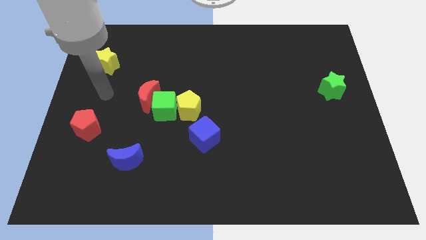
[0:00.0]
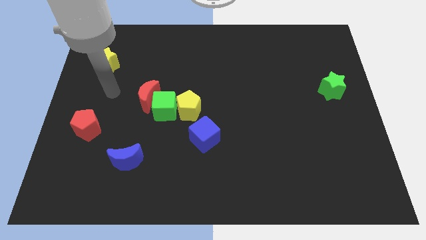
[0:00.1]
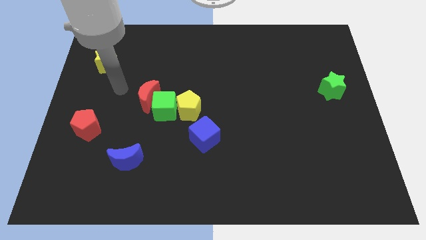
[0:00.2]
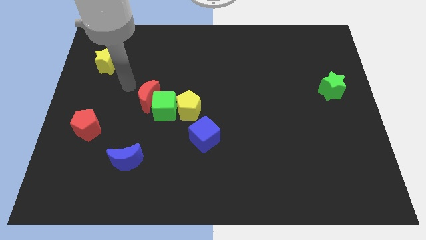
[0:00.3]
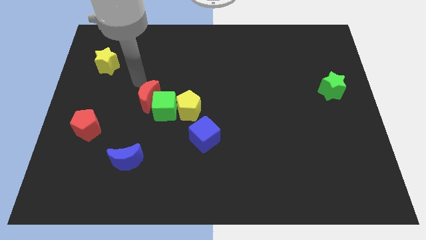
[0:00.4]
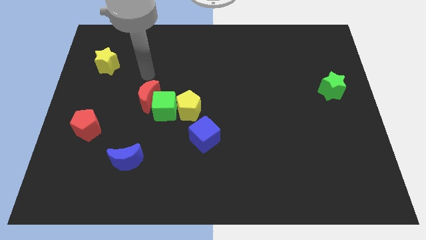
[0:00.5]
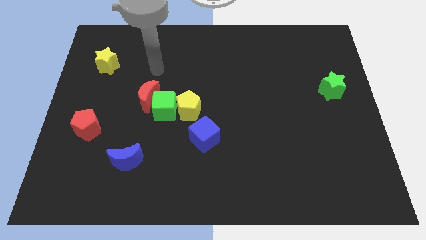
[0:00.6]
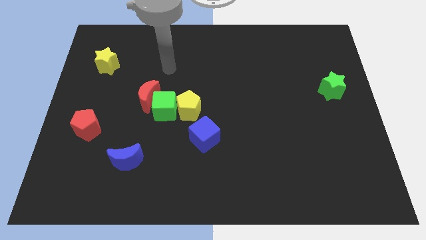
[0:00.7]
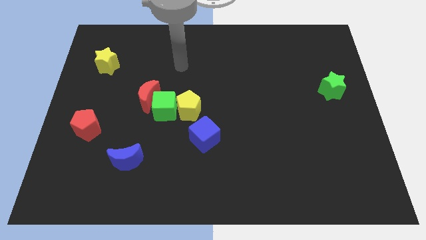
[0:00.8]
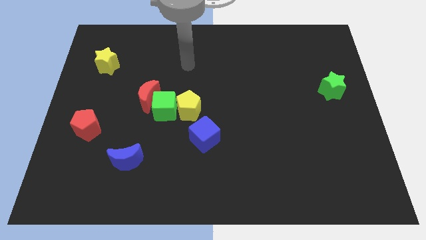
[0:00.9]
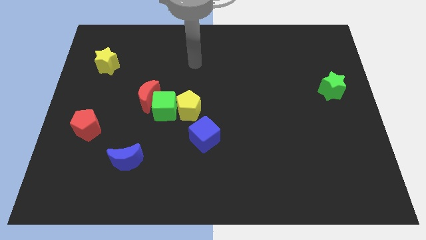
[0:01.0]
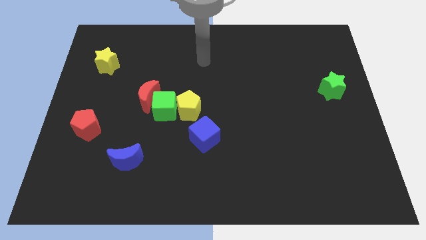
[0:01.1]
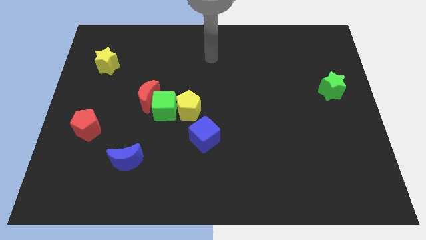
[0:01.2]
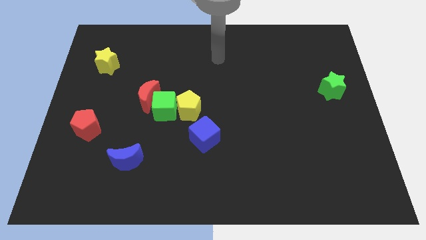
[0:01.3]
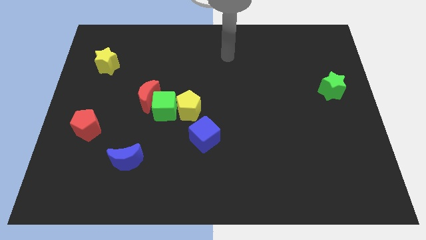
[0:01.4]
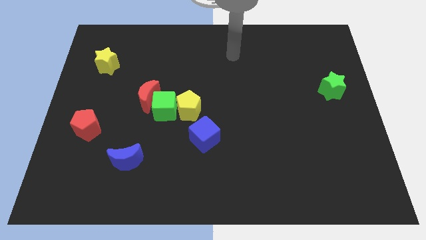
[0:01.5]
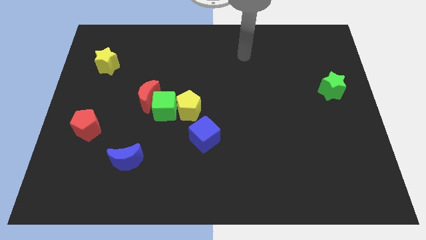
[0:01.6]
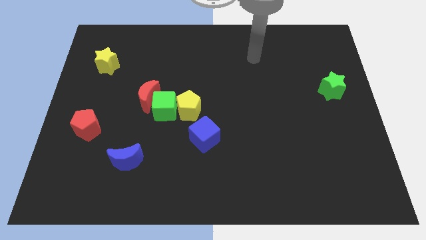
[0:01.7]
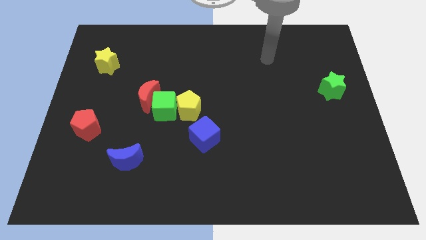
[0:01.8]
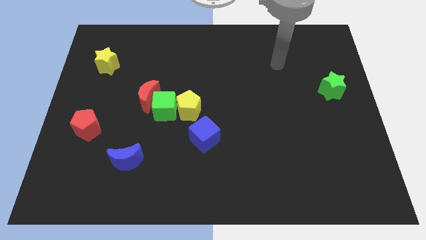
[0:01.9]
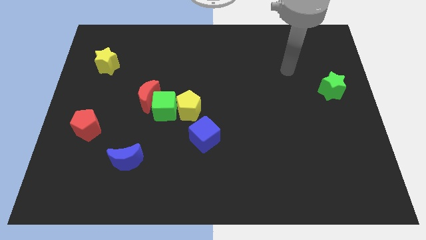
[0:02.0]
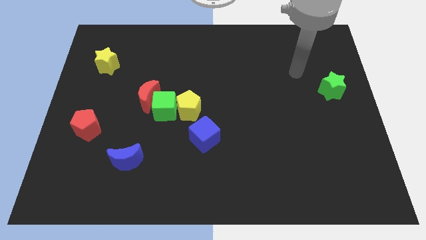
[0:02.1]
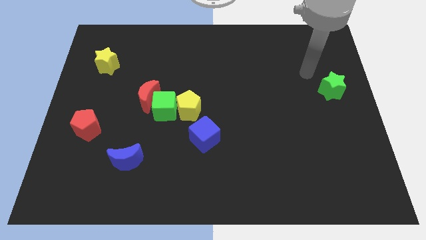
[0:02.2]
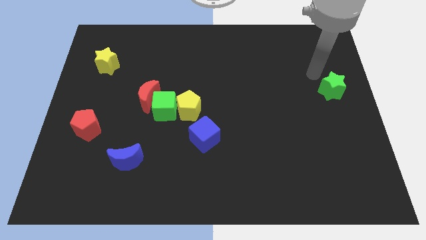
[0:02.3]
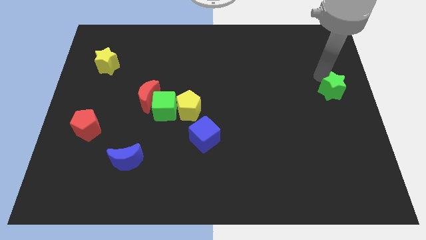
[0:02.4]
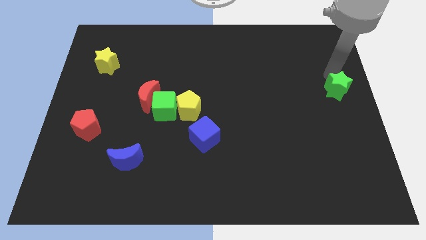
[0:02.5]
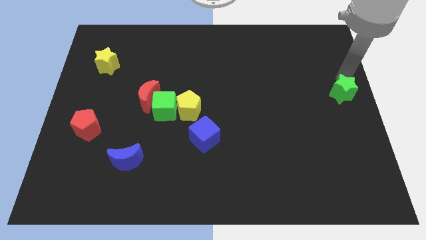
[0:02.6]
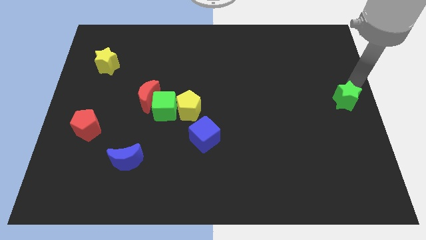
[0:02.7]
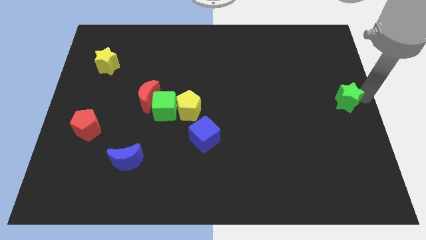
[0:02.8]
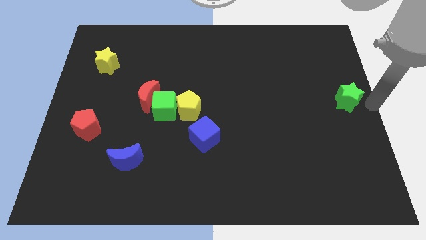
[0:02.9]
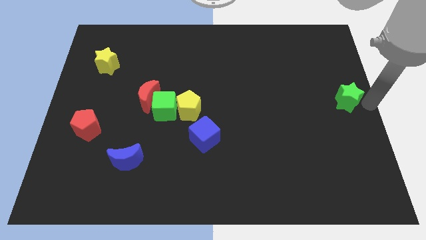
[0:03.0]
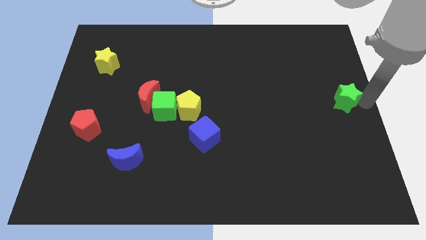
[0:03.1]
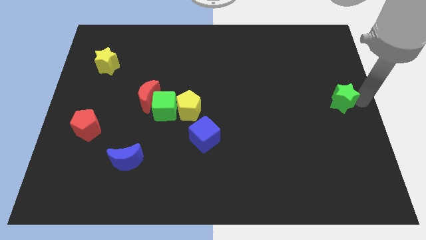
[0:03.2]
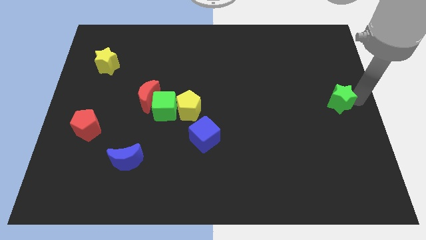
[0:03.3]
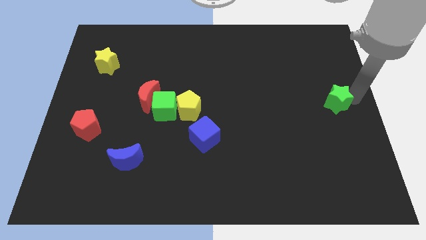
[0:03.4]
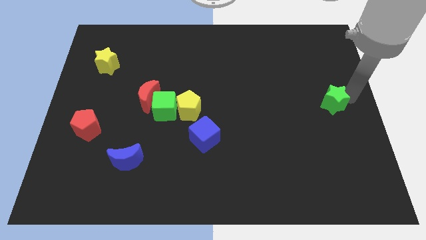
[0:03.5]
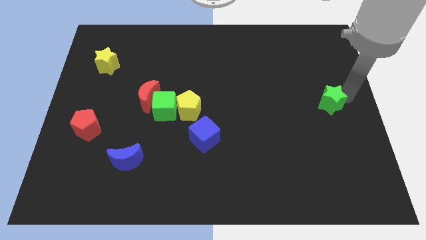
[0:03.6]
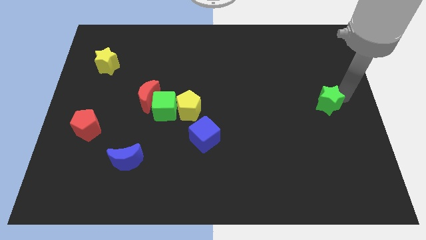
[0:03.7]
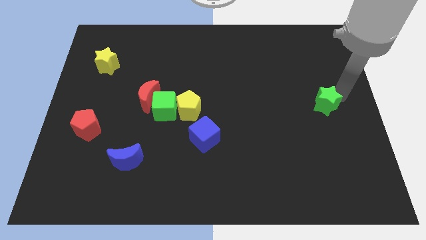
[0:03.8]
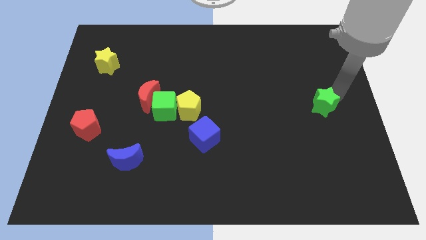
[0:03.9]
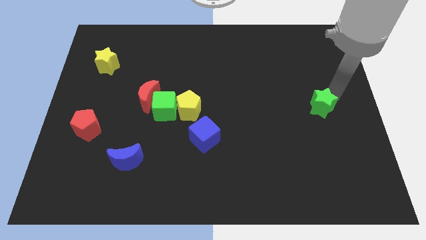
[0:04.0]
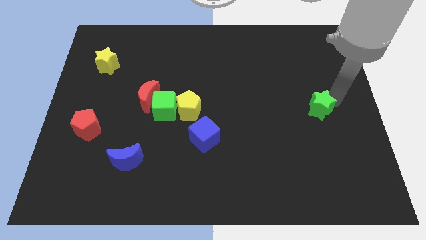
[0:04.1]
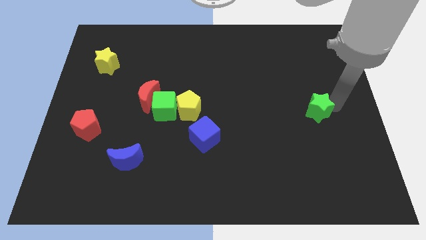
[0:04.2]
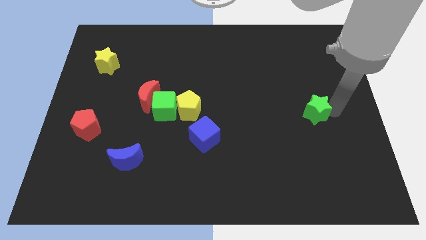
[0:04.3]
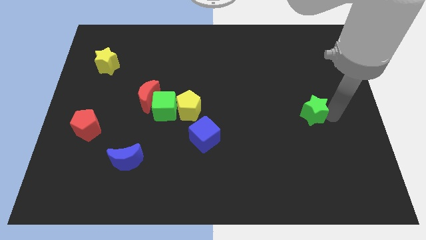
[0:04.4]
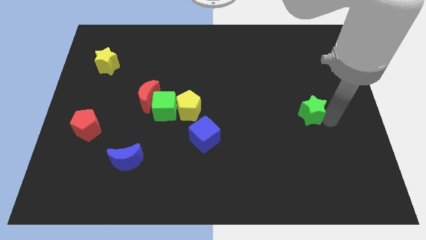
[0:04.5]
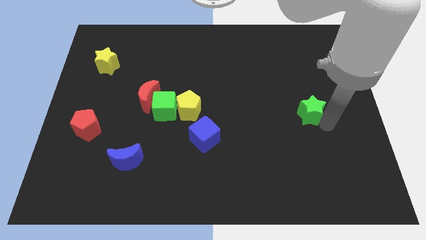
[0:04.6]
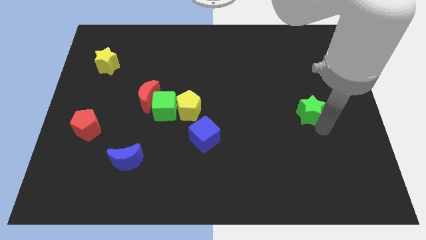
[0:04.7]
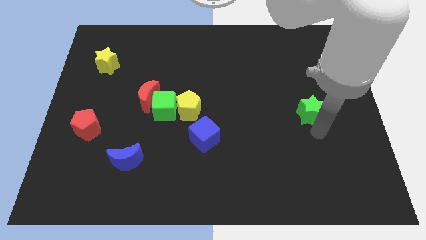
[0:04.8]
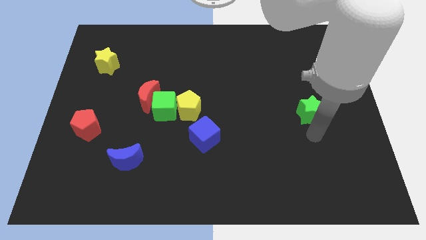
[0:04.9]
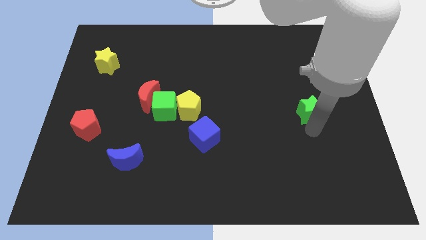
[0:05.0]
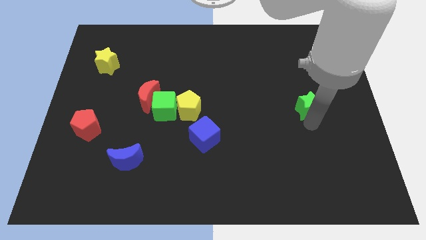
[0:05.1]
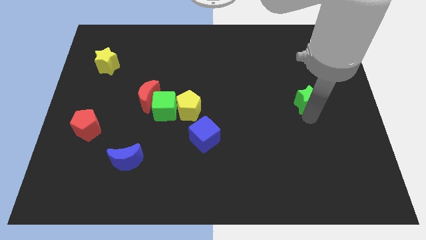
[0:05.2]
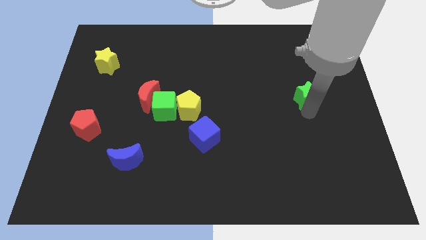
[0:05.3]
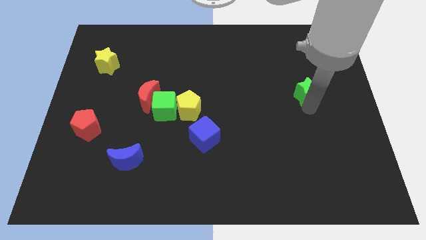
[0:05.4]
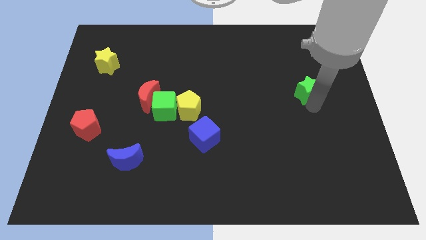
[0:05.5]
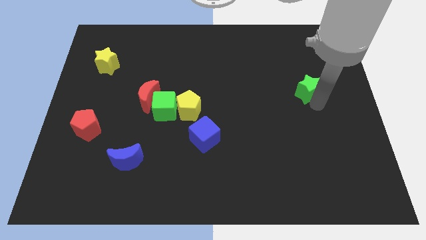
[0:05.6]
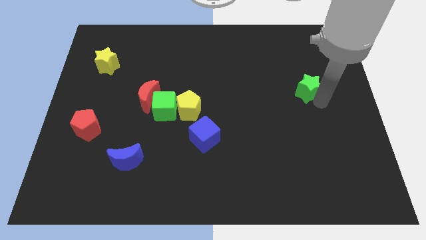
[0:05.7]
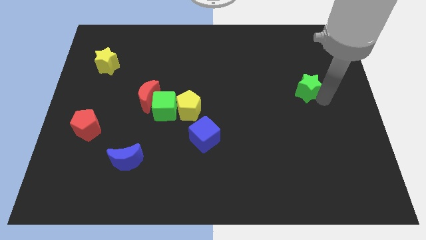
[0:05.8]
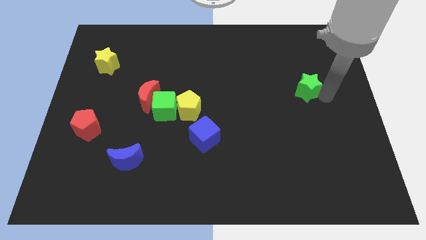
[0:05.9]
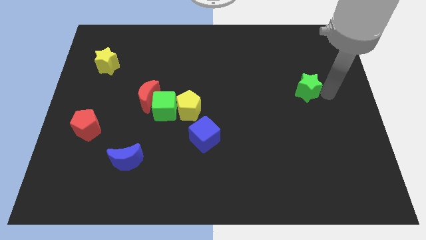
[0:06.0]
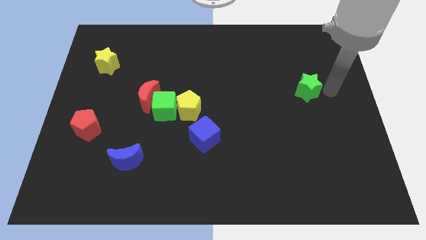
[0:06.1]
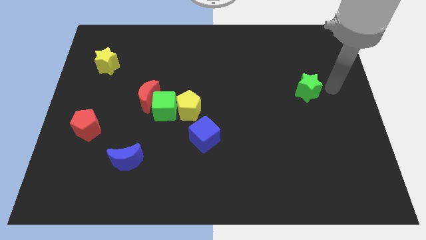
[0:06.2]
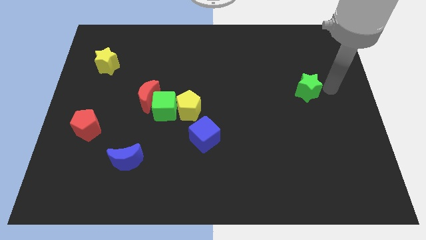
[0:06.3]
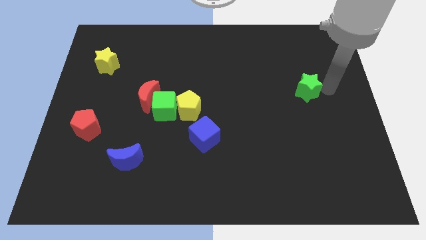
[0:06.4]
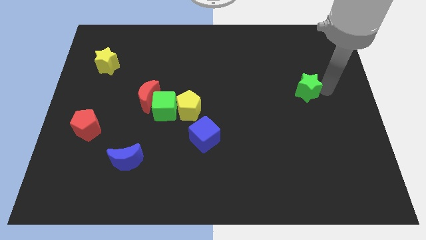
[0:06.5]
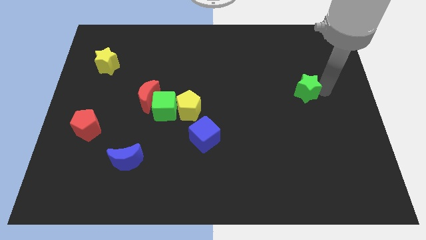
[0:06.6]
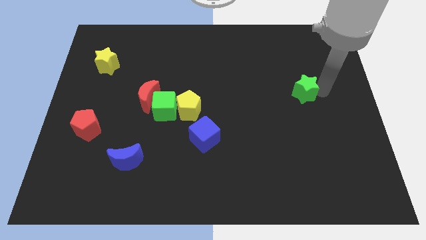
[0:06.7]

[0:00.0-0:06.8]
push the green star to the left a little bit

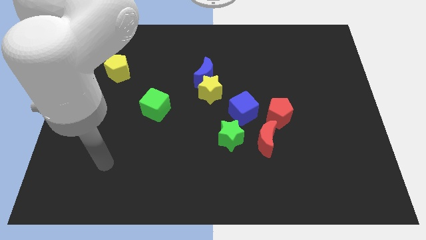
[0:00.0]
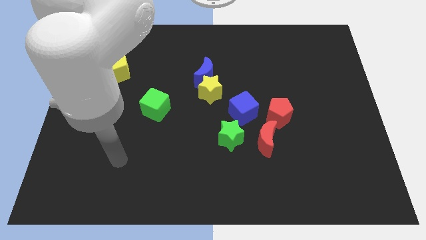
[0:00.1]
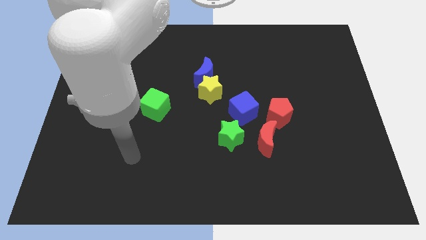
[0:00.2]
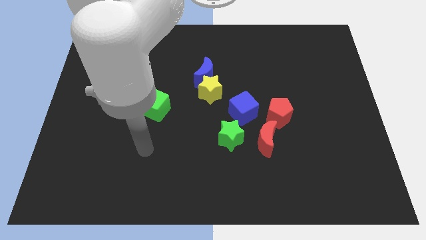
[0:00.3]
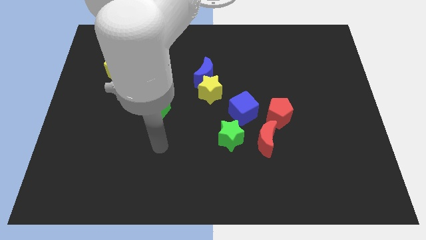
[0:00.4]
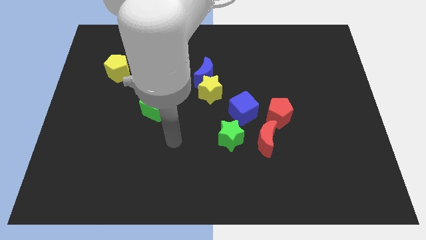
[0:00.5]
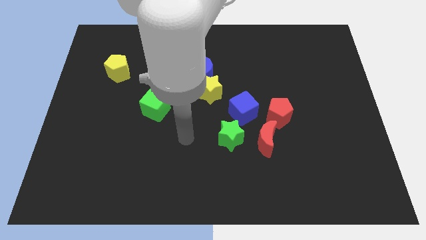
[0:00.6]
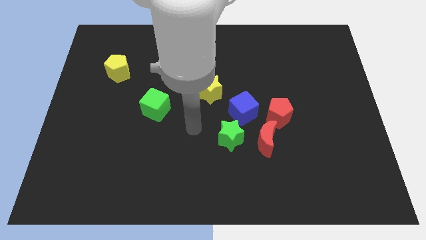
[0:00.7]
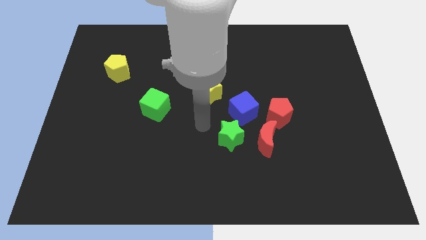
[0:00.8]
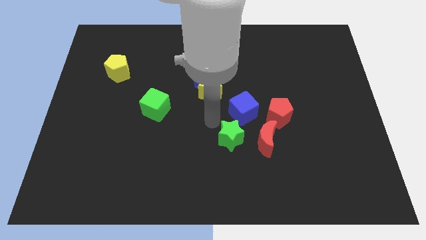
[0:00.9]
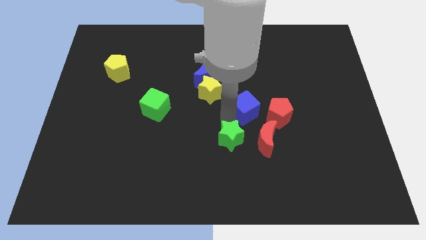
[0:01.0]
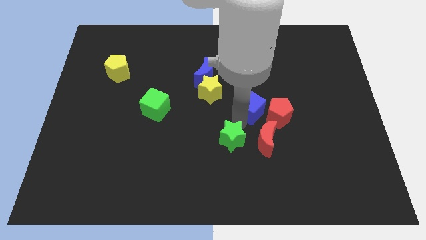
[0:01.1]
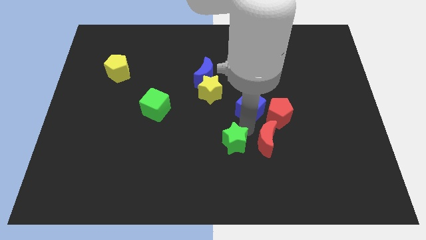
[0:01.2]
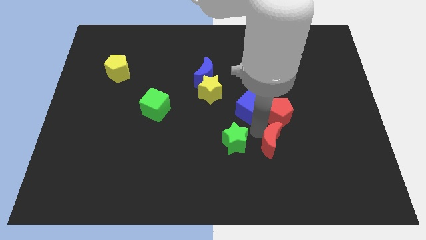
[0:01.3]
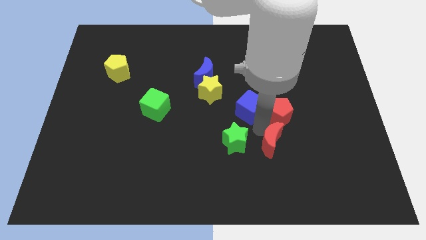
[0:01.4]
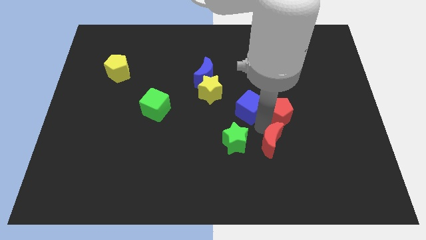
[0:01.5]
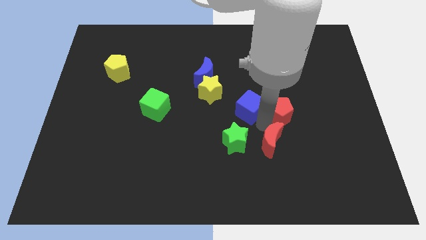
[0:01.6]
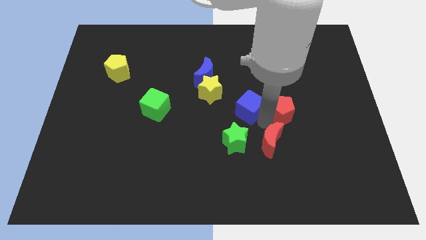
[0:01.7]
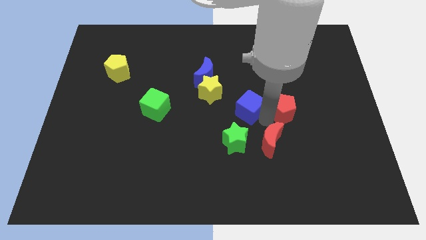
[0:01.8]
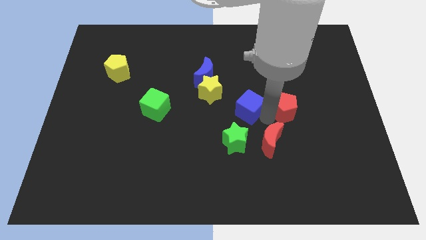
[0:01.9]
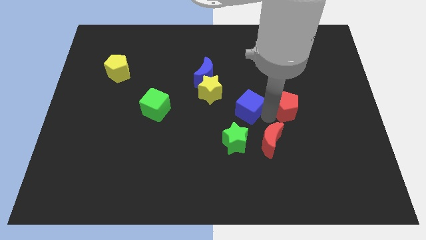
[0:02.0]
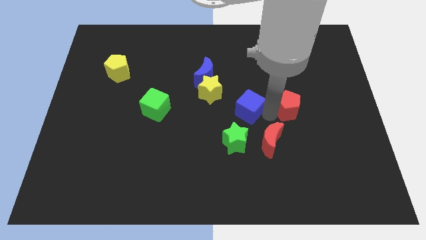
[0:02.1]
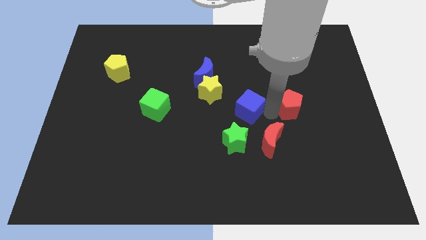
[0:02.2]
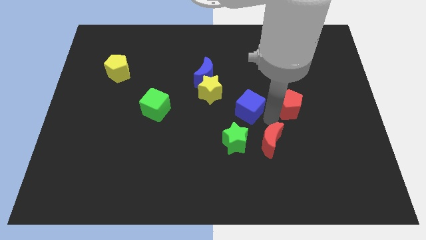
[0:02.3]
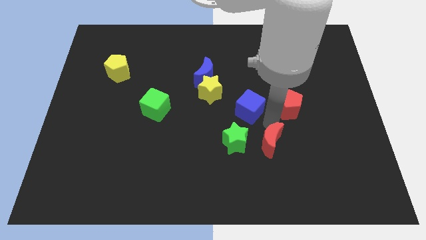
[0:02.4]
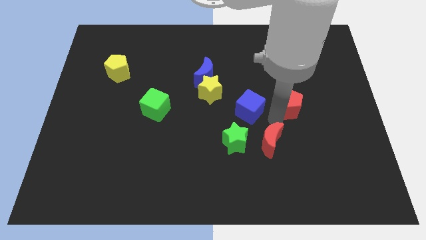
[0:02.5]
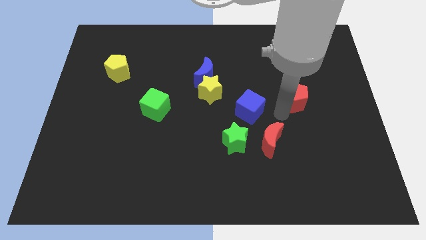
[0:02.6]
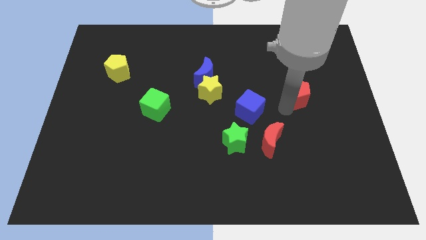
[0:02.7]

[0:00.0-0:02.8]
move the red pentagon diagonally upwards and right slightly
